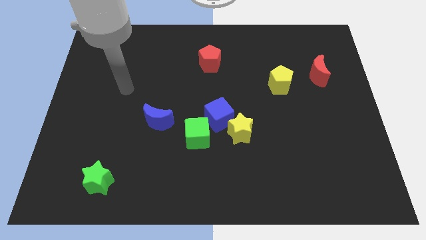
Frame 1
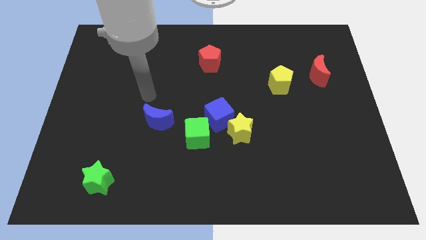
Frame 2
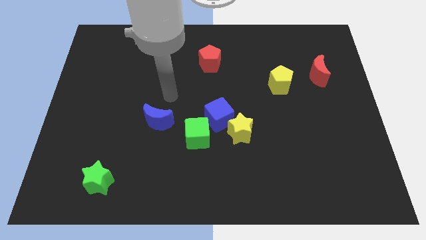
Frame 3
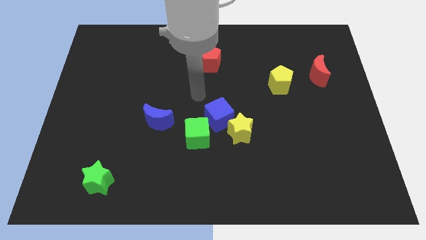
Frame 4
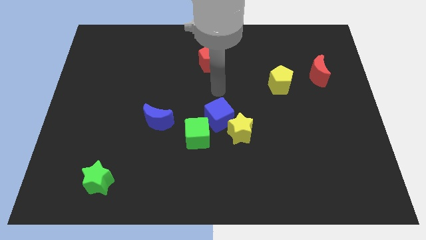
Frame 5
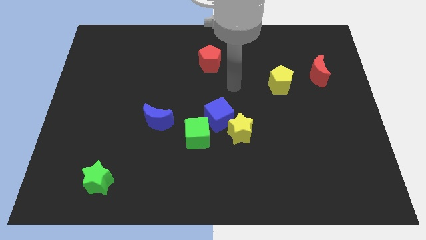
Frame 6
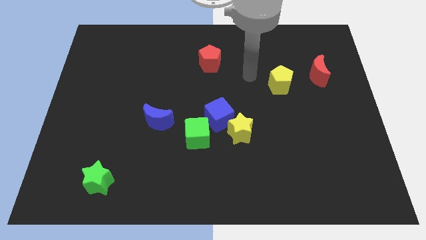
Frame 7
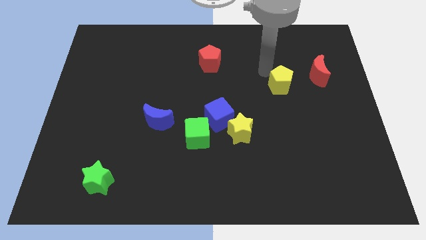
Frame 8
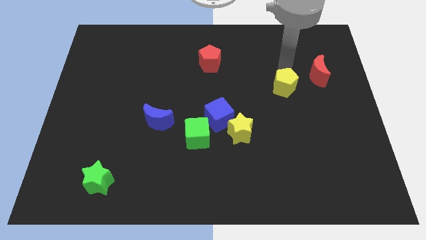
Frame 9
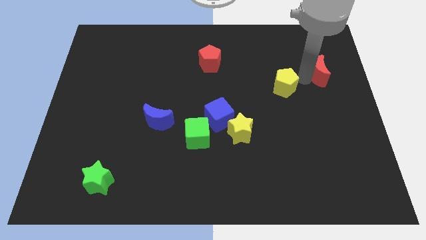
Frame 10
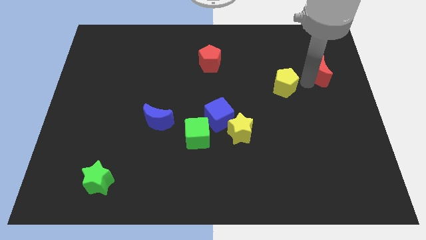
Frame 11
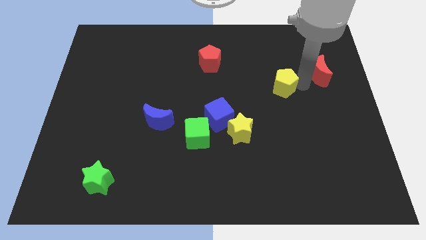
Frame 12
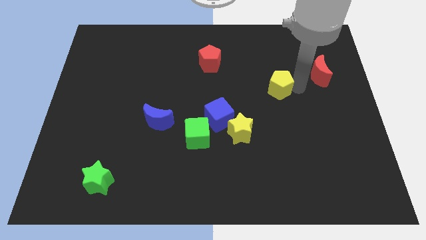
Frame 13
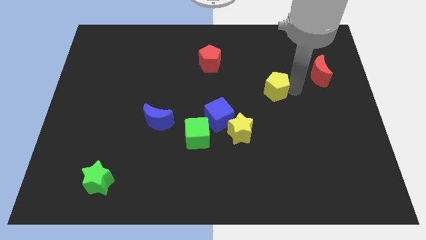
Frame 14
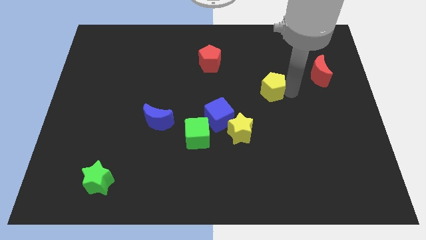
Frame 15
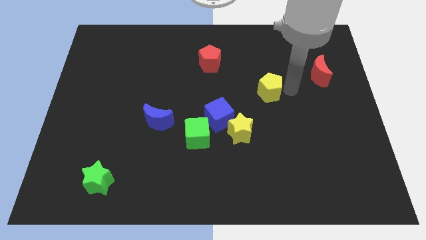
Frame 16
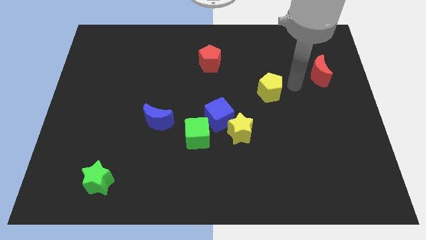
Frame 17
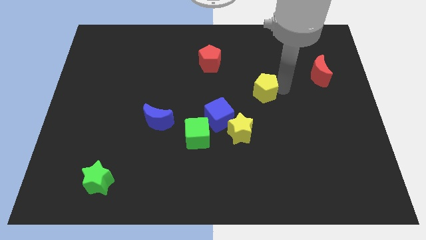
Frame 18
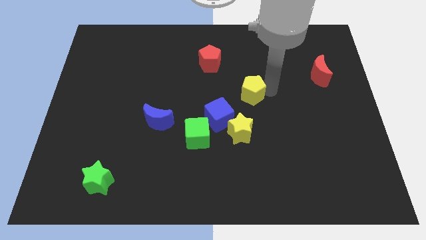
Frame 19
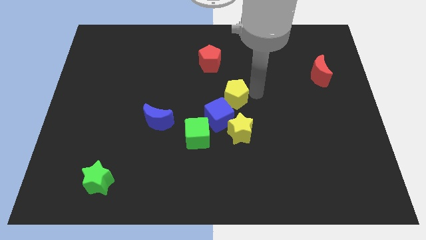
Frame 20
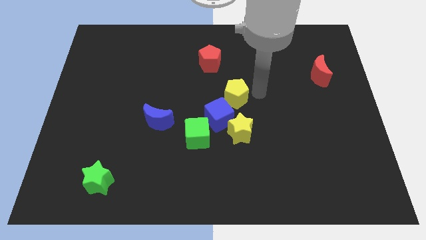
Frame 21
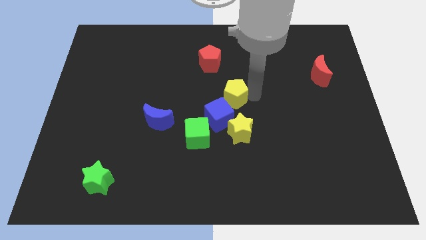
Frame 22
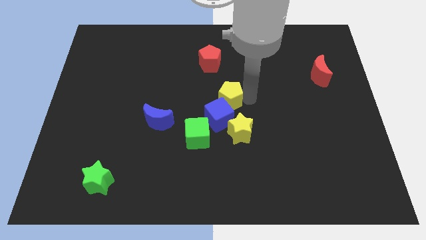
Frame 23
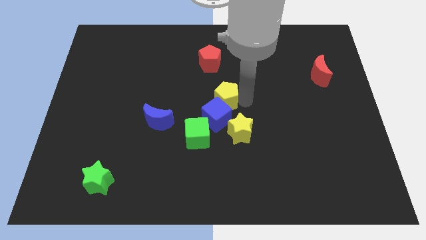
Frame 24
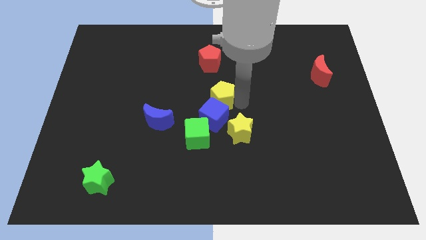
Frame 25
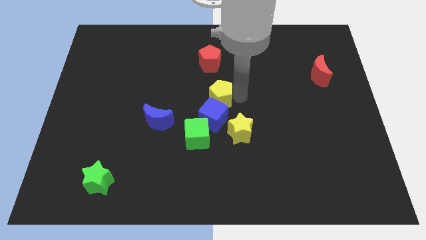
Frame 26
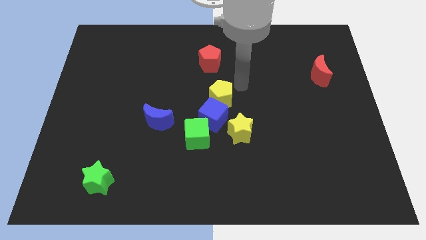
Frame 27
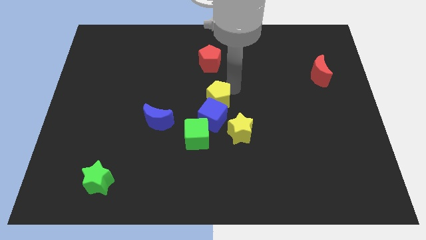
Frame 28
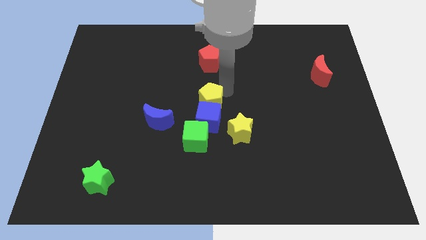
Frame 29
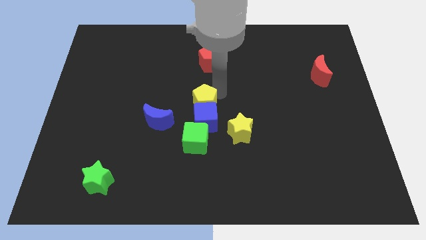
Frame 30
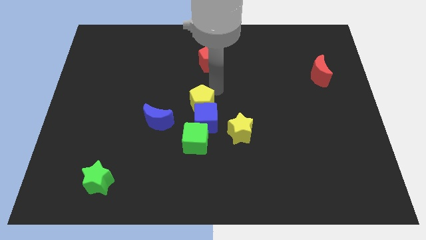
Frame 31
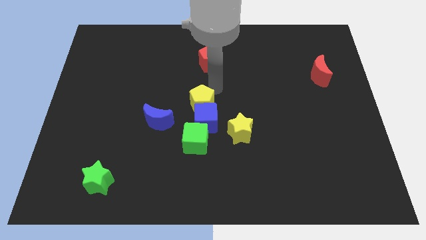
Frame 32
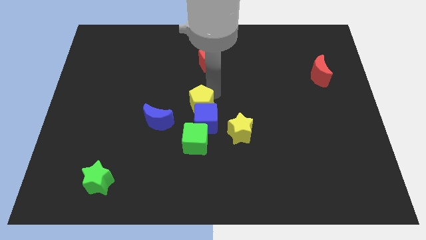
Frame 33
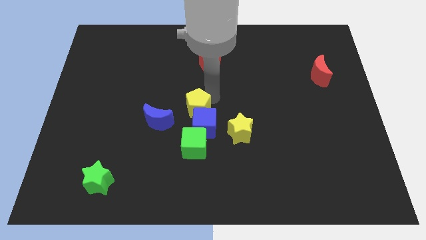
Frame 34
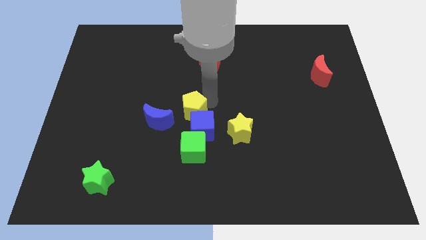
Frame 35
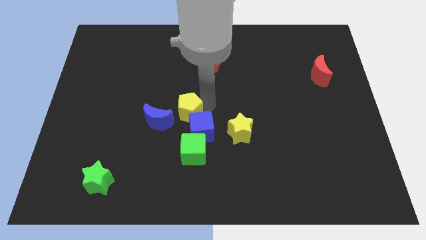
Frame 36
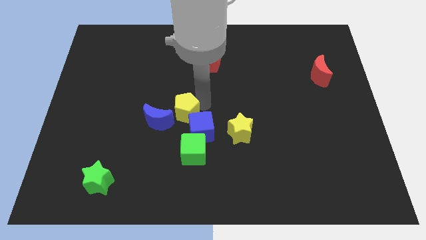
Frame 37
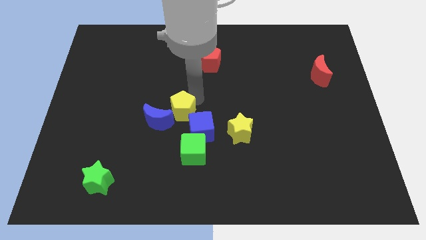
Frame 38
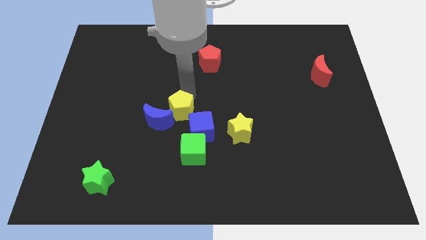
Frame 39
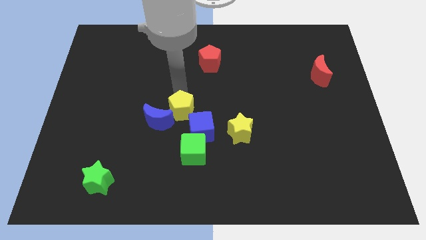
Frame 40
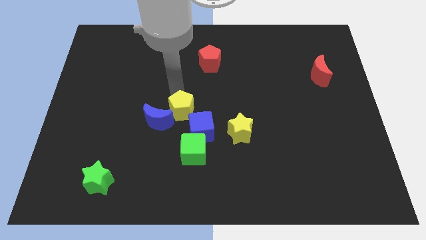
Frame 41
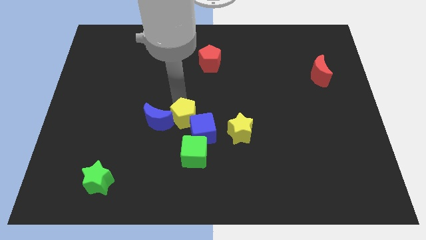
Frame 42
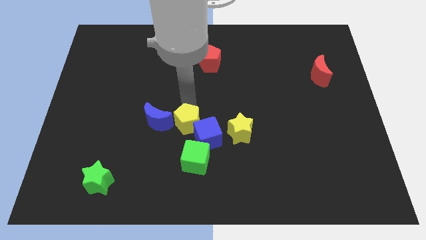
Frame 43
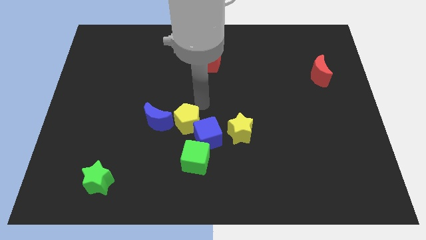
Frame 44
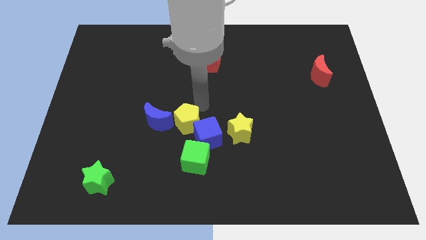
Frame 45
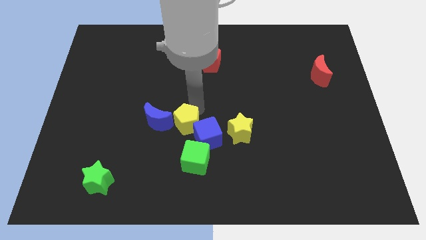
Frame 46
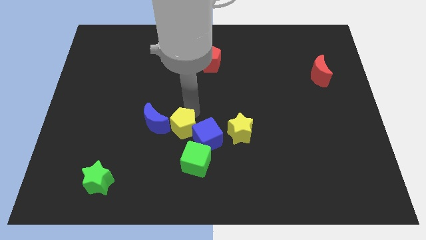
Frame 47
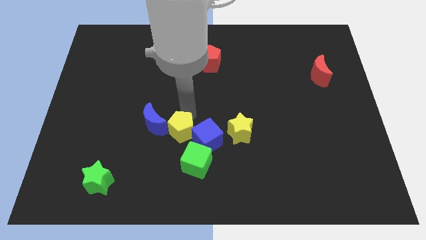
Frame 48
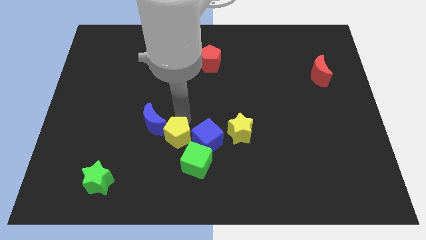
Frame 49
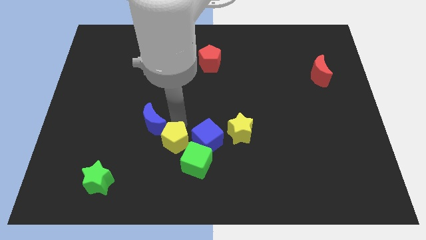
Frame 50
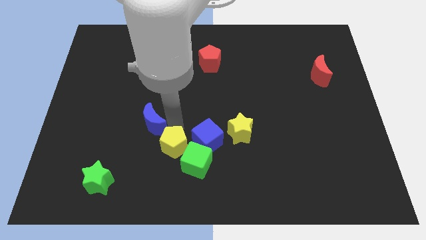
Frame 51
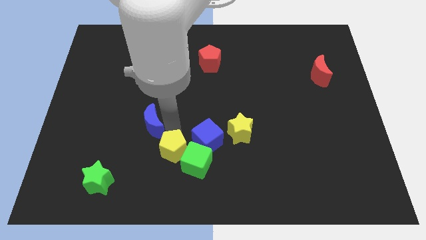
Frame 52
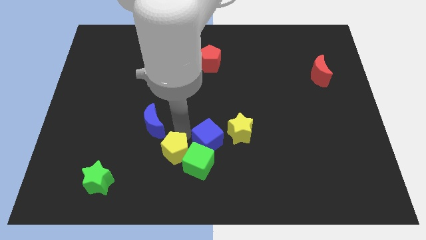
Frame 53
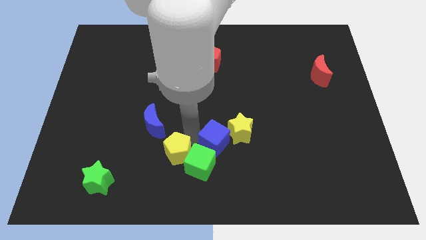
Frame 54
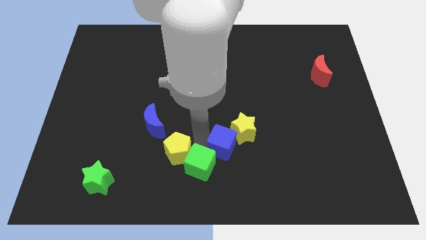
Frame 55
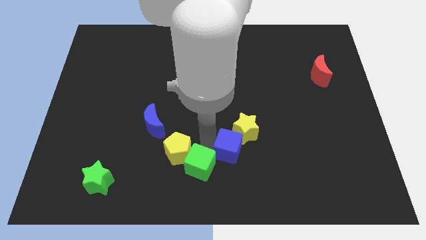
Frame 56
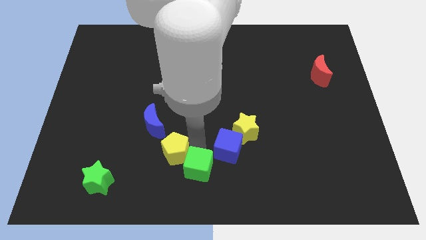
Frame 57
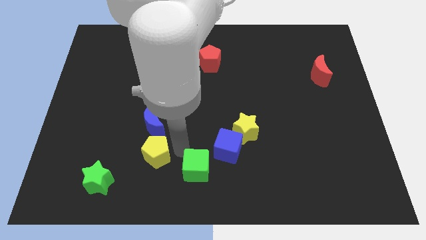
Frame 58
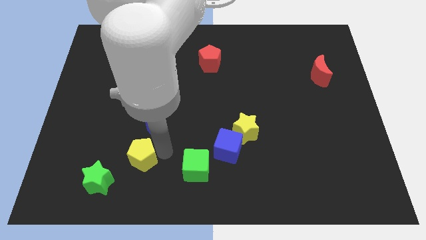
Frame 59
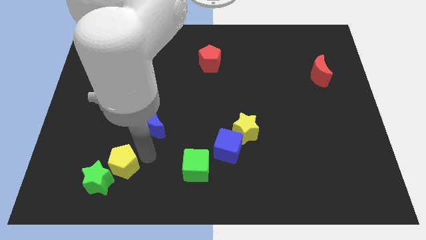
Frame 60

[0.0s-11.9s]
push the yellow pentagon towards the green star

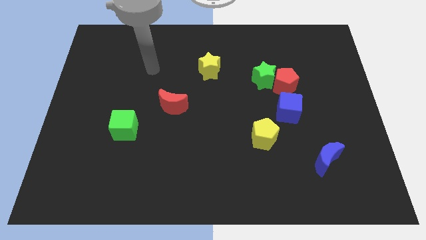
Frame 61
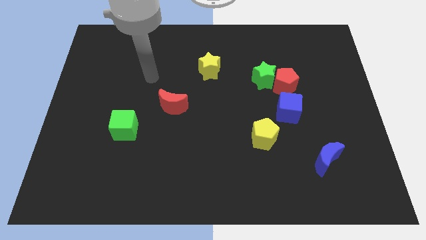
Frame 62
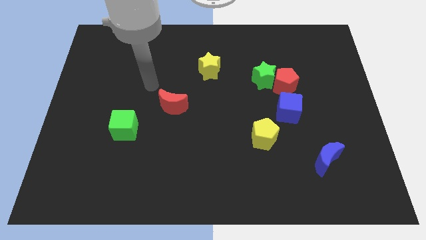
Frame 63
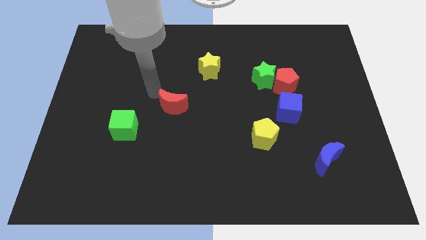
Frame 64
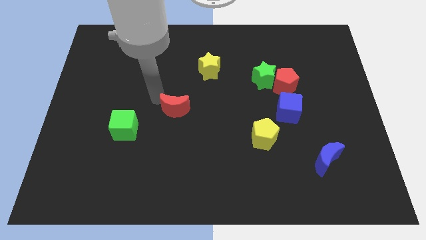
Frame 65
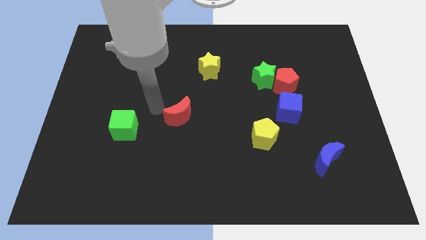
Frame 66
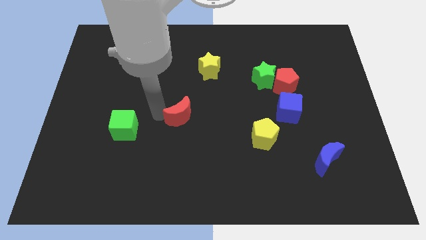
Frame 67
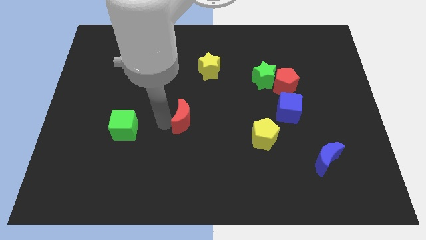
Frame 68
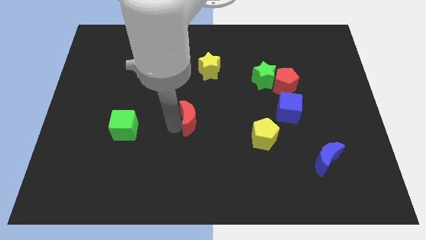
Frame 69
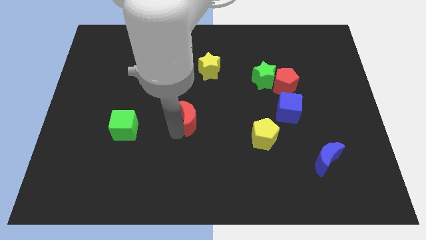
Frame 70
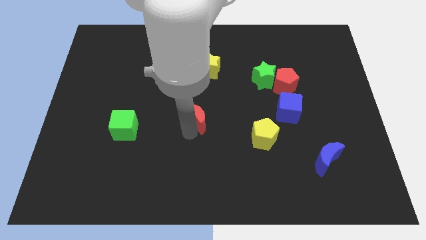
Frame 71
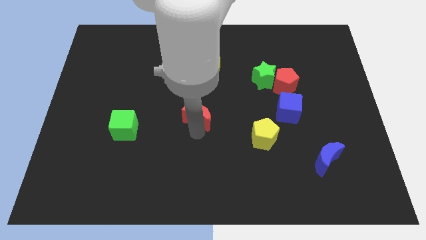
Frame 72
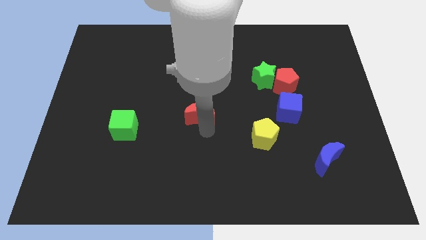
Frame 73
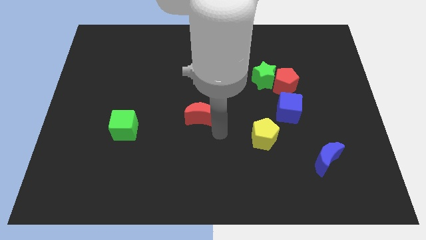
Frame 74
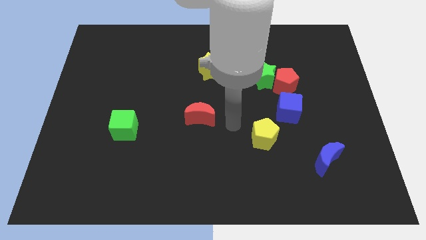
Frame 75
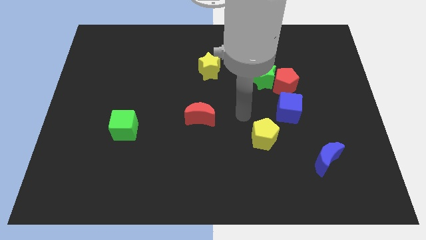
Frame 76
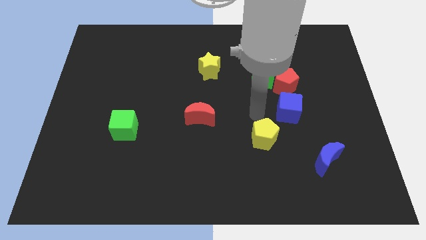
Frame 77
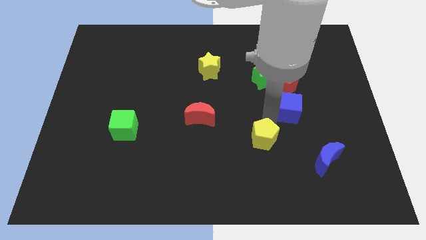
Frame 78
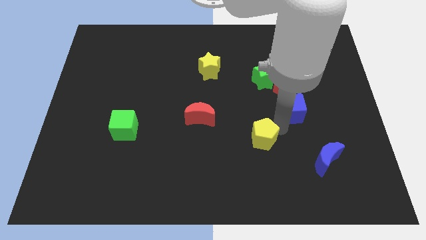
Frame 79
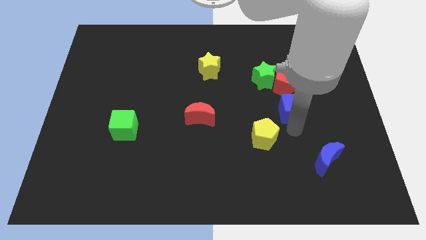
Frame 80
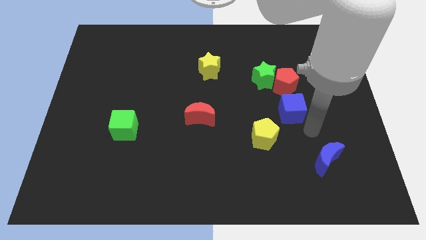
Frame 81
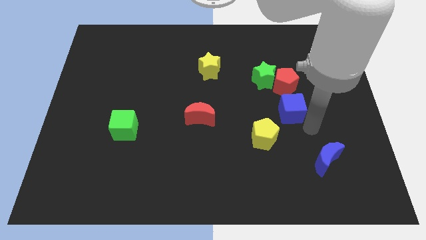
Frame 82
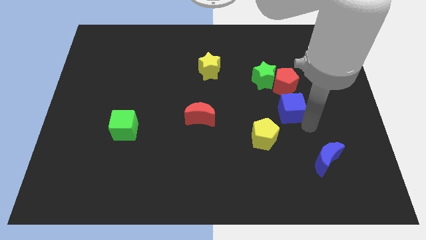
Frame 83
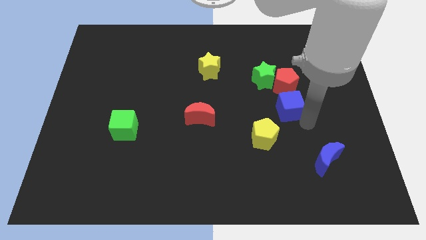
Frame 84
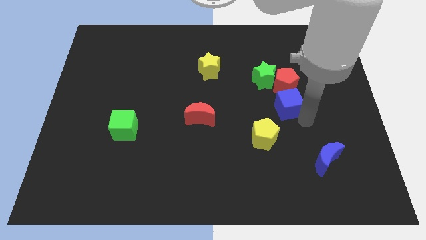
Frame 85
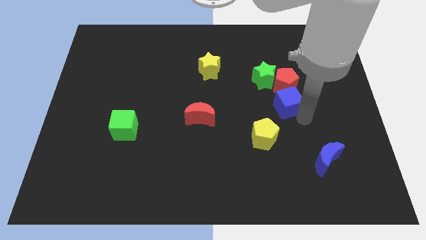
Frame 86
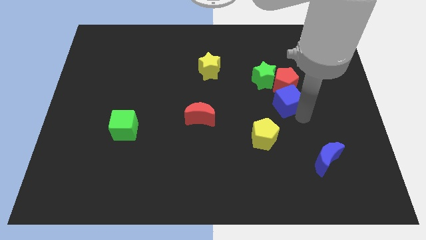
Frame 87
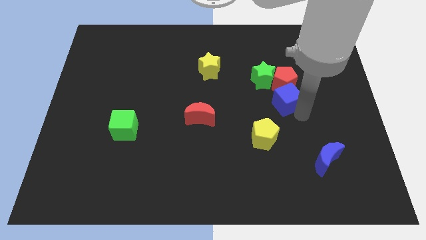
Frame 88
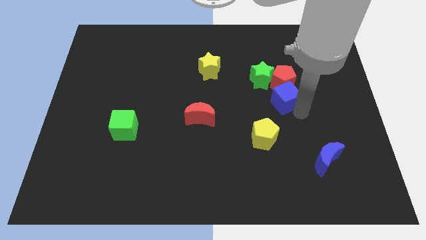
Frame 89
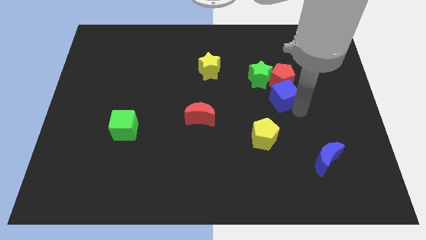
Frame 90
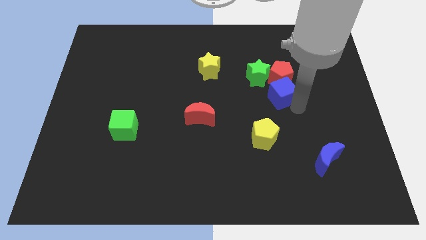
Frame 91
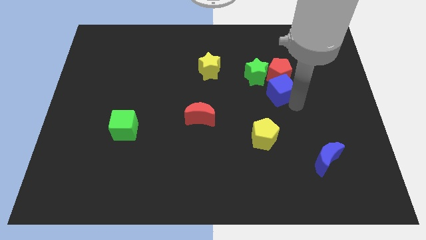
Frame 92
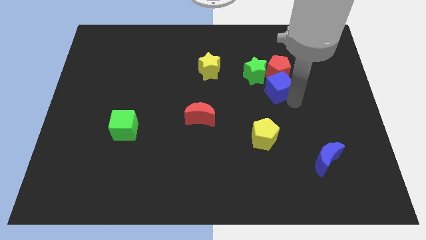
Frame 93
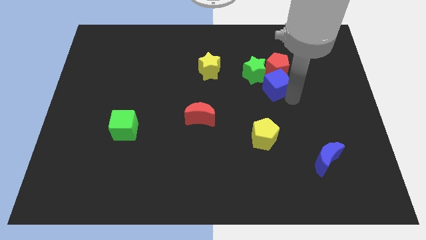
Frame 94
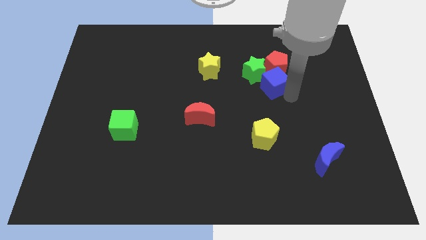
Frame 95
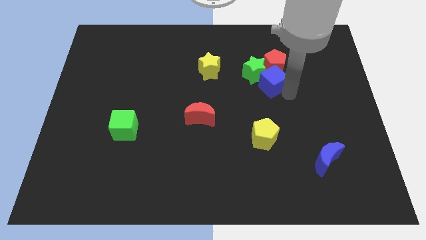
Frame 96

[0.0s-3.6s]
slide the blue cube next to the green star
